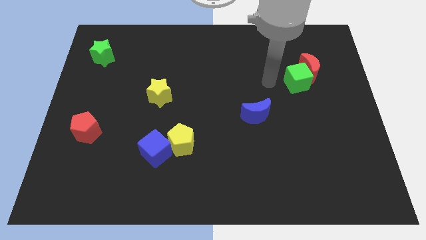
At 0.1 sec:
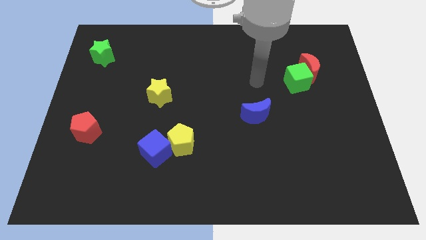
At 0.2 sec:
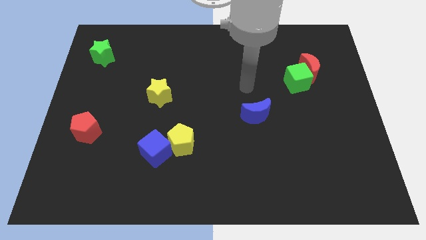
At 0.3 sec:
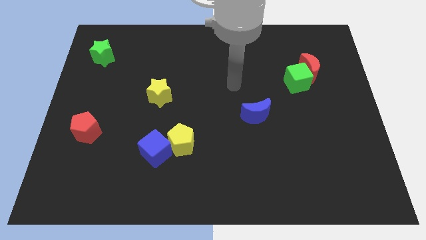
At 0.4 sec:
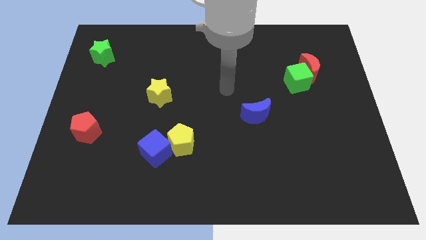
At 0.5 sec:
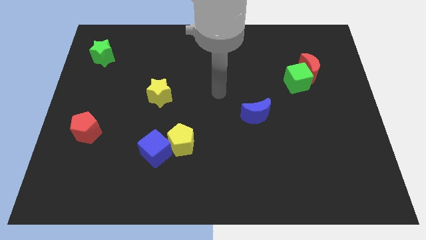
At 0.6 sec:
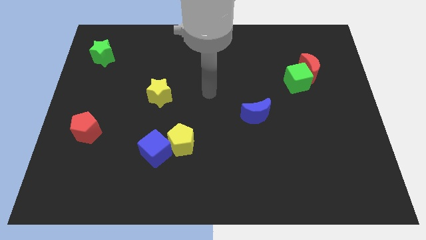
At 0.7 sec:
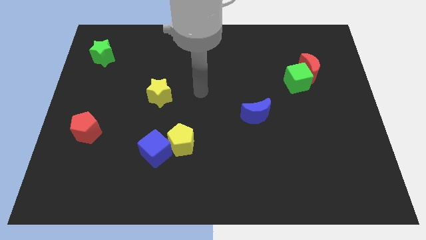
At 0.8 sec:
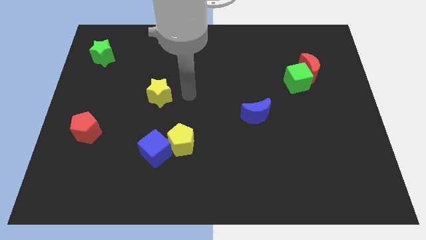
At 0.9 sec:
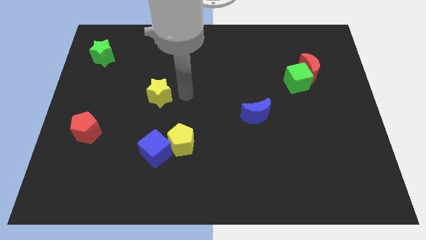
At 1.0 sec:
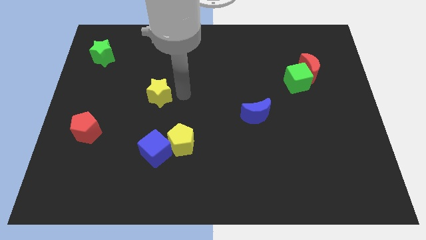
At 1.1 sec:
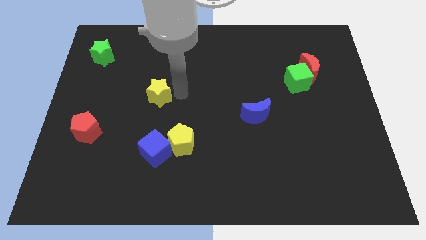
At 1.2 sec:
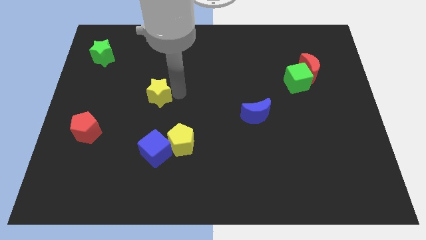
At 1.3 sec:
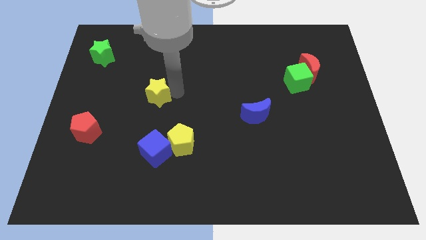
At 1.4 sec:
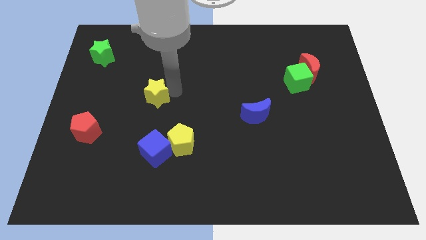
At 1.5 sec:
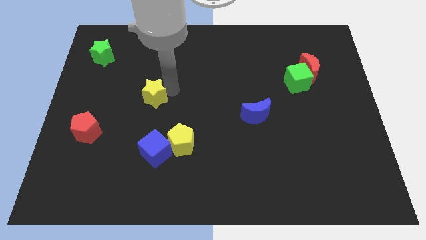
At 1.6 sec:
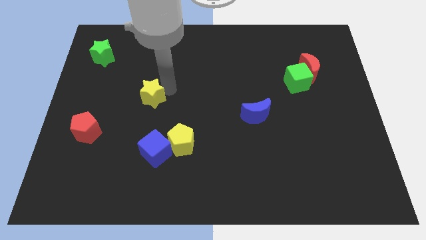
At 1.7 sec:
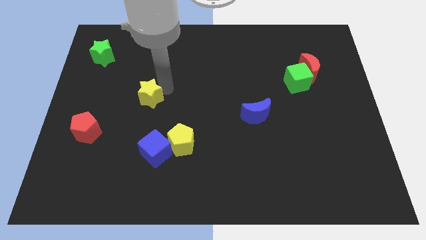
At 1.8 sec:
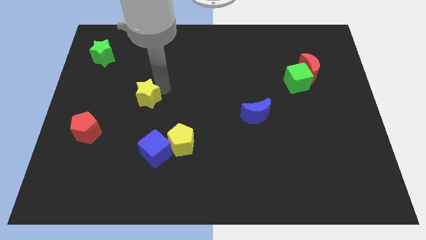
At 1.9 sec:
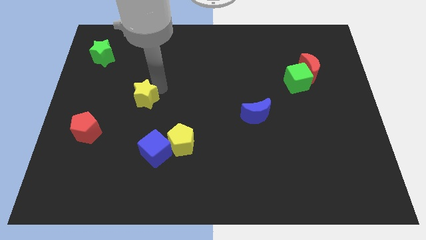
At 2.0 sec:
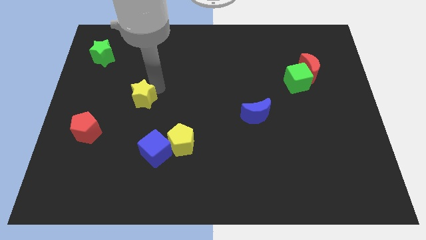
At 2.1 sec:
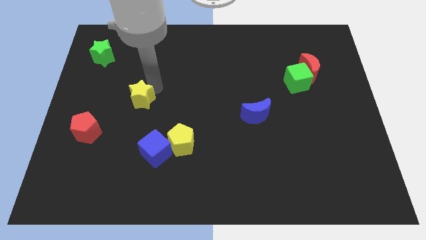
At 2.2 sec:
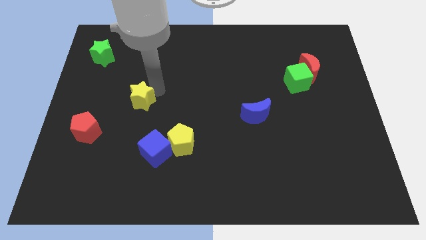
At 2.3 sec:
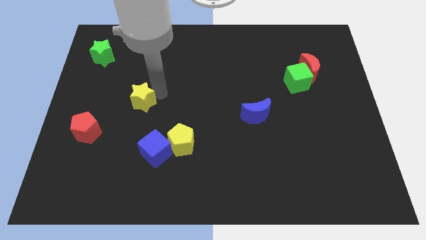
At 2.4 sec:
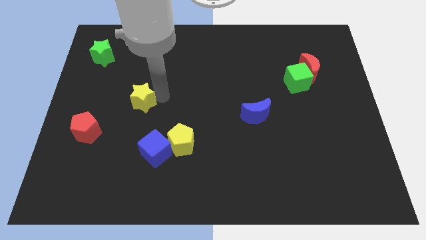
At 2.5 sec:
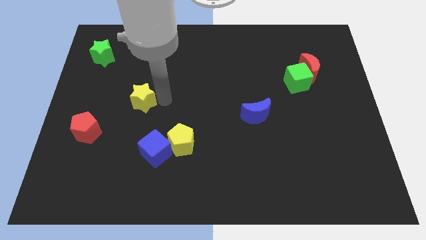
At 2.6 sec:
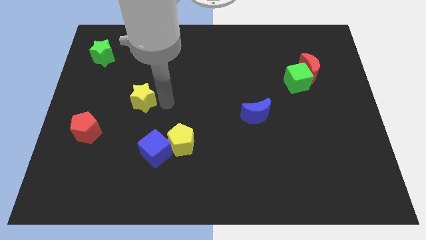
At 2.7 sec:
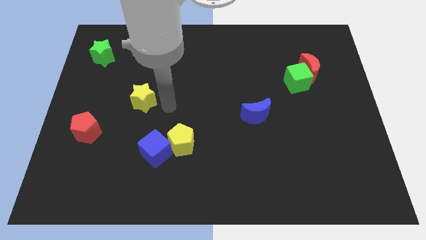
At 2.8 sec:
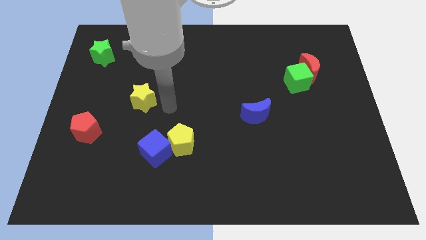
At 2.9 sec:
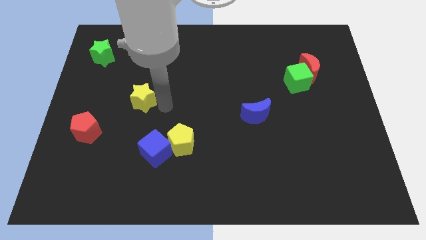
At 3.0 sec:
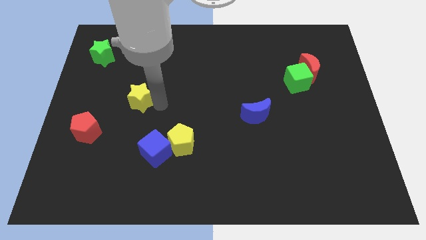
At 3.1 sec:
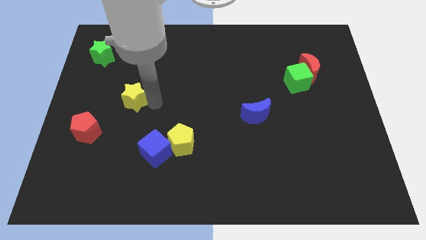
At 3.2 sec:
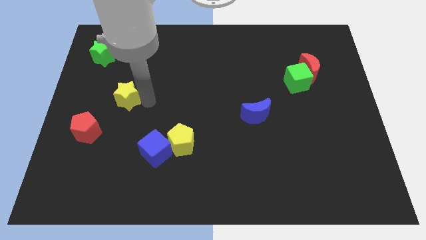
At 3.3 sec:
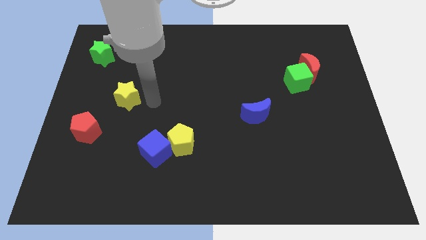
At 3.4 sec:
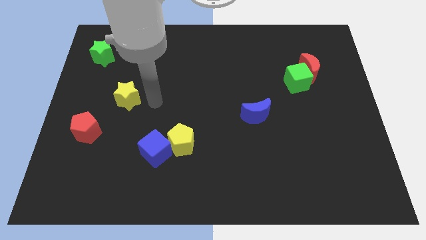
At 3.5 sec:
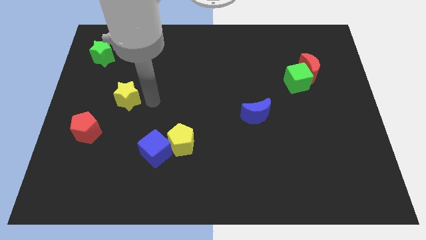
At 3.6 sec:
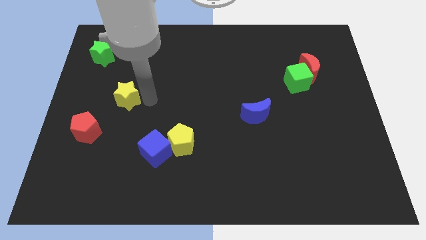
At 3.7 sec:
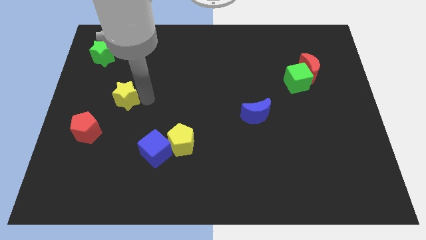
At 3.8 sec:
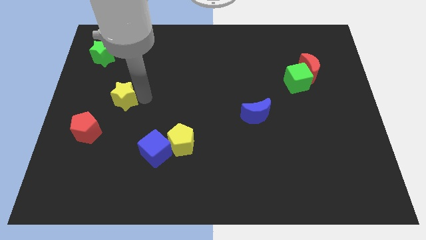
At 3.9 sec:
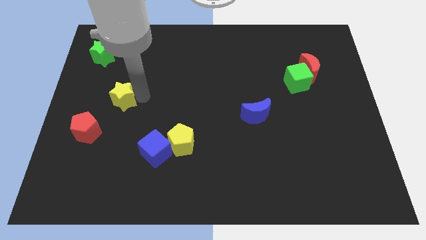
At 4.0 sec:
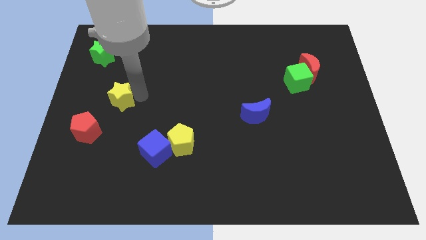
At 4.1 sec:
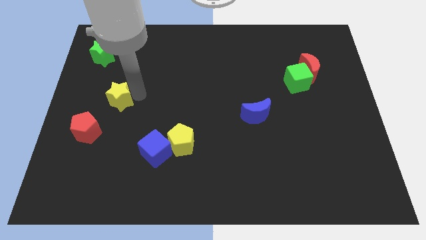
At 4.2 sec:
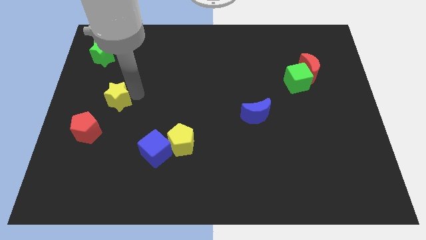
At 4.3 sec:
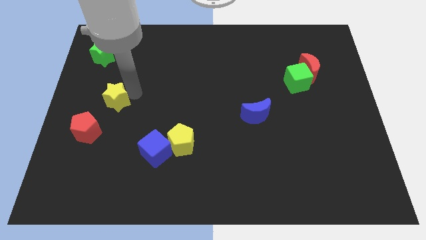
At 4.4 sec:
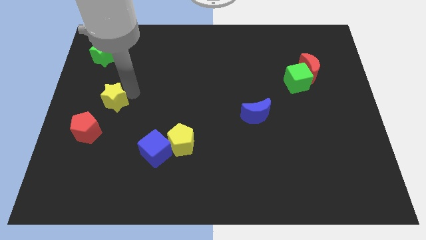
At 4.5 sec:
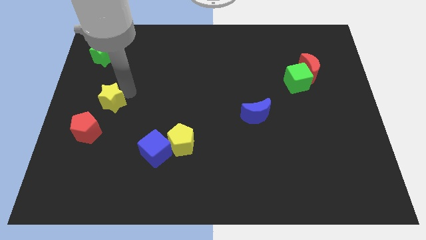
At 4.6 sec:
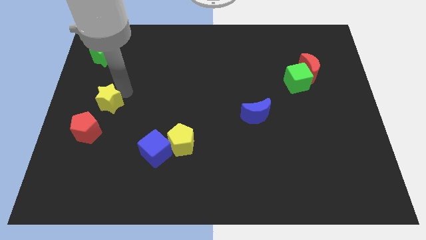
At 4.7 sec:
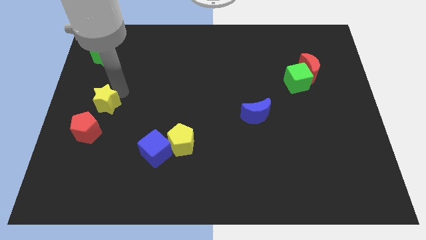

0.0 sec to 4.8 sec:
push the yellow star to the center left

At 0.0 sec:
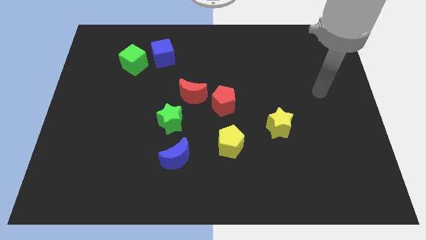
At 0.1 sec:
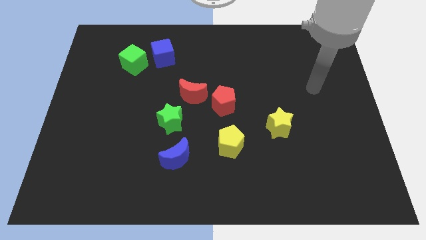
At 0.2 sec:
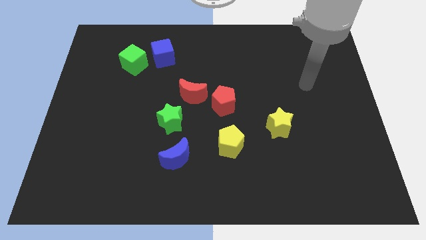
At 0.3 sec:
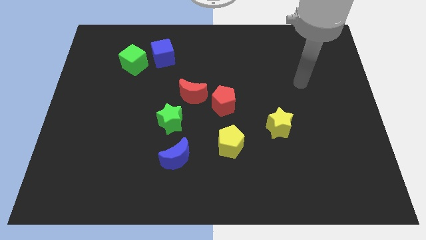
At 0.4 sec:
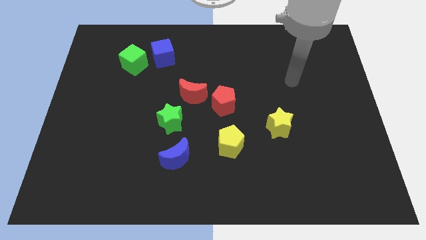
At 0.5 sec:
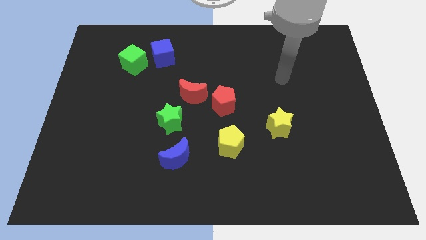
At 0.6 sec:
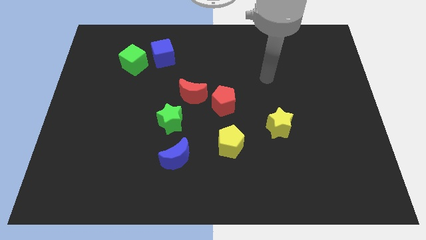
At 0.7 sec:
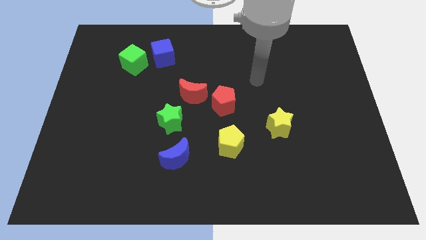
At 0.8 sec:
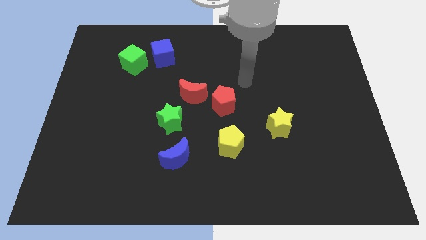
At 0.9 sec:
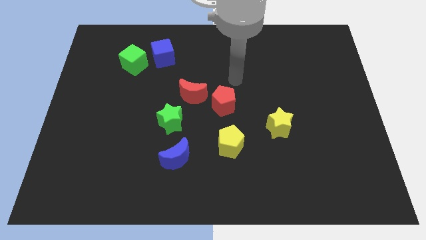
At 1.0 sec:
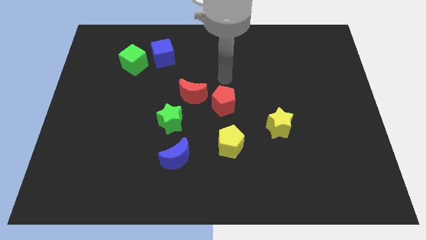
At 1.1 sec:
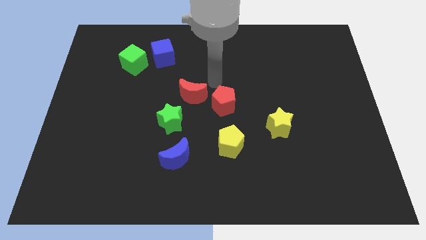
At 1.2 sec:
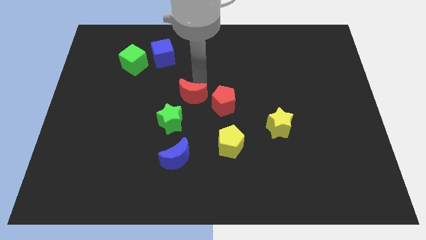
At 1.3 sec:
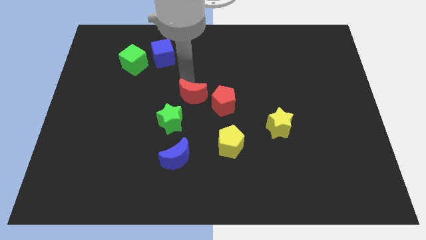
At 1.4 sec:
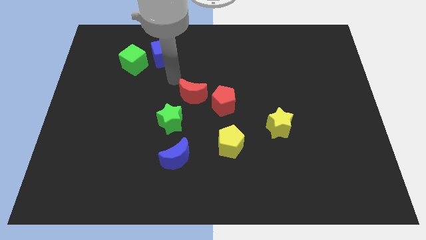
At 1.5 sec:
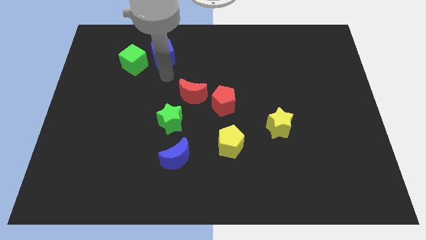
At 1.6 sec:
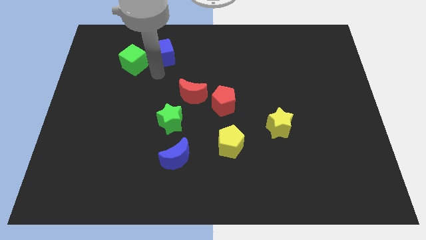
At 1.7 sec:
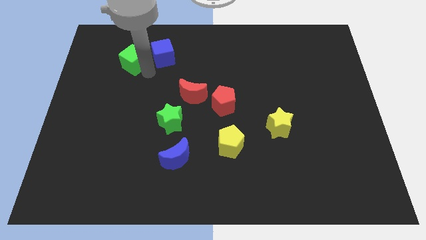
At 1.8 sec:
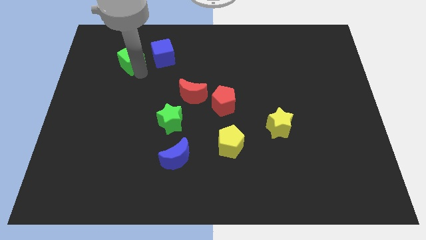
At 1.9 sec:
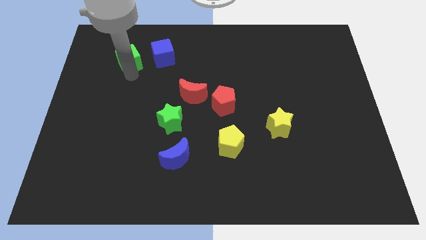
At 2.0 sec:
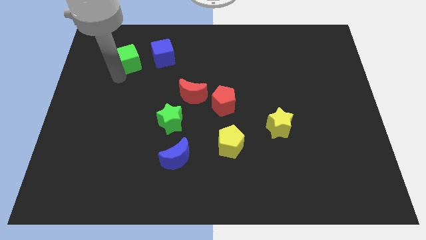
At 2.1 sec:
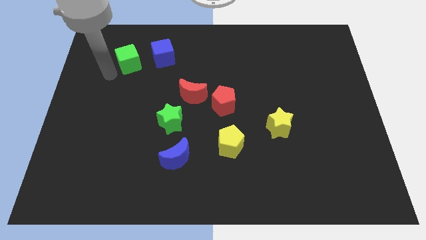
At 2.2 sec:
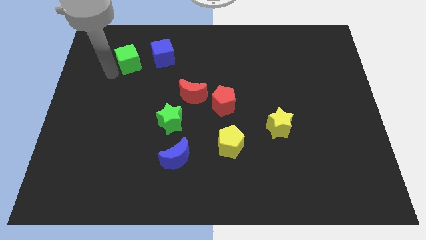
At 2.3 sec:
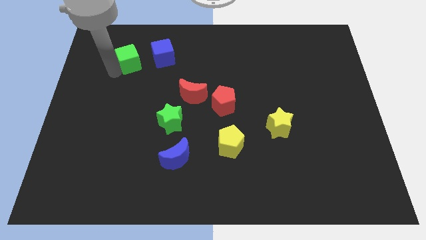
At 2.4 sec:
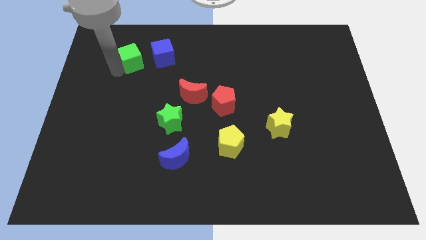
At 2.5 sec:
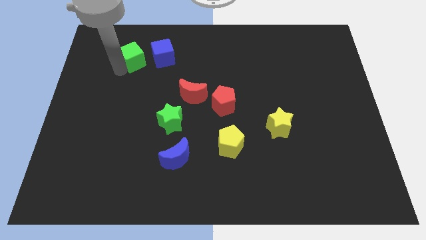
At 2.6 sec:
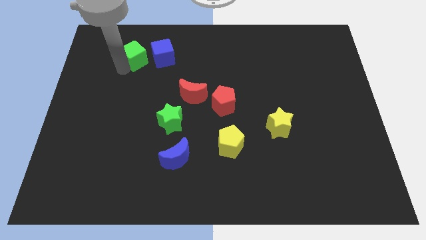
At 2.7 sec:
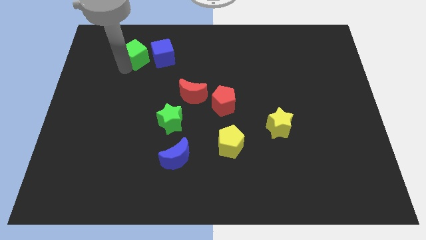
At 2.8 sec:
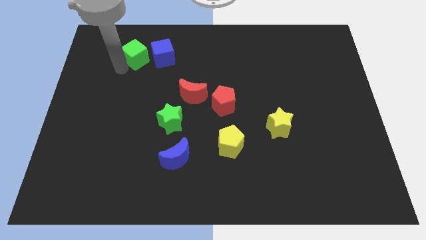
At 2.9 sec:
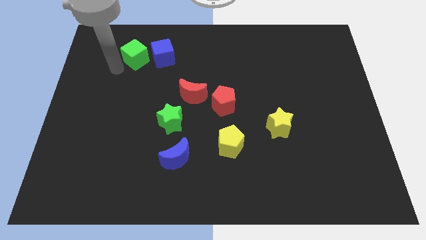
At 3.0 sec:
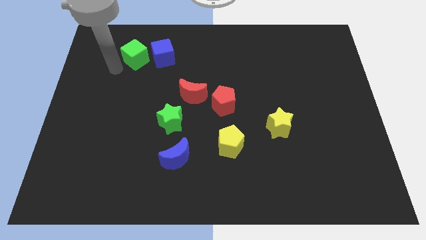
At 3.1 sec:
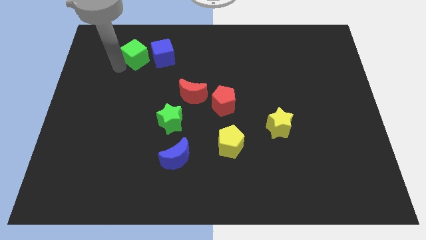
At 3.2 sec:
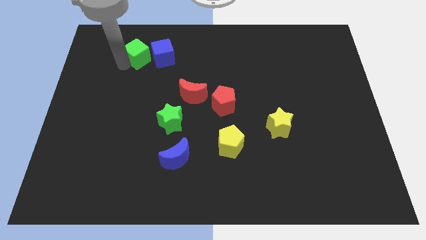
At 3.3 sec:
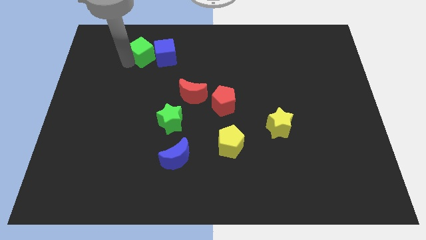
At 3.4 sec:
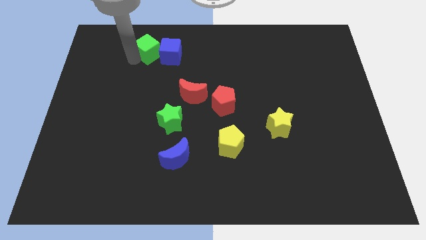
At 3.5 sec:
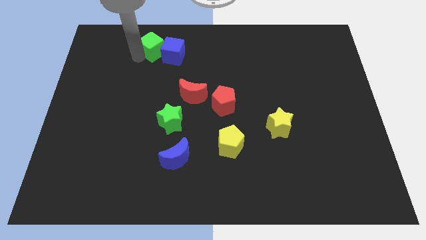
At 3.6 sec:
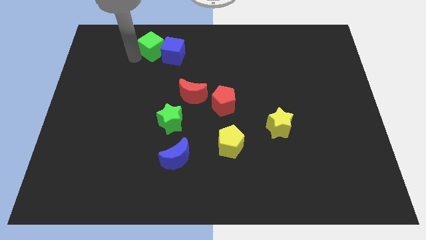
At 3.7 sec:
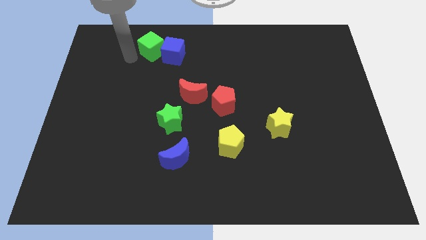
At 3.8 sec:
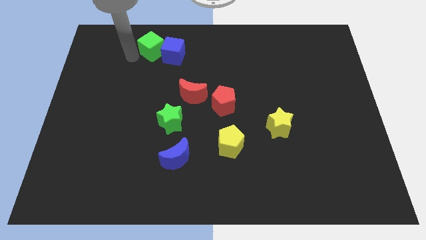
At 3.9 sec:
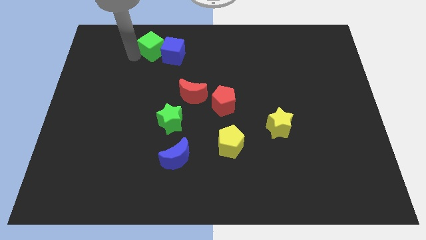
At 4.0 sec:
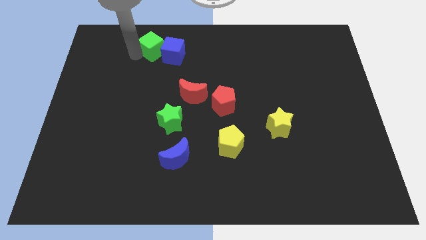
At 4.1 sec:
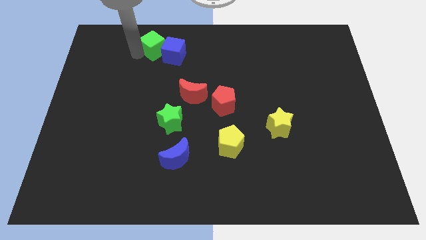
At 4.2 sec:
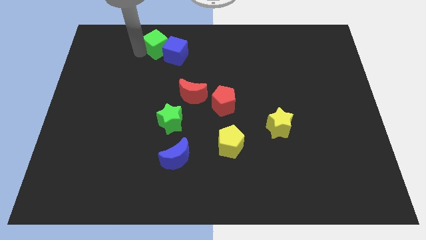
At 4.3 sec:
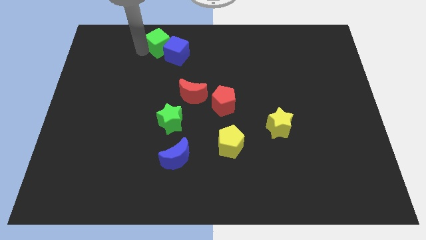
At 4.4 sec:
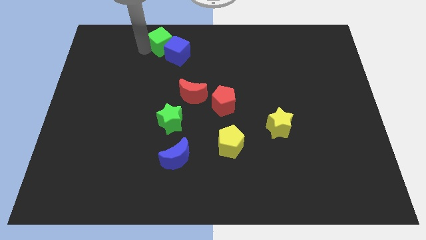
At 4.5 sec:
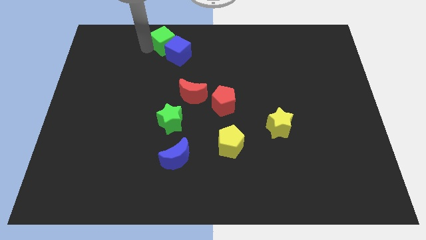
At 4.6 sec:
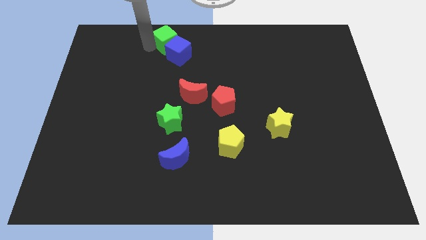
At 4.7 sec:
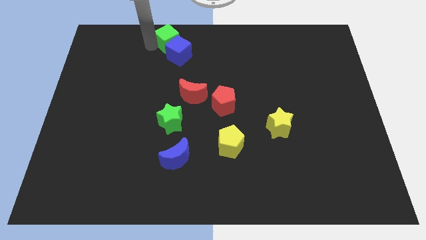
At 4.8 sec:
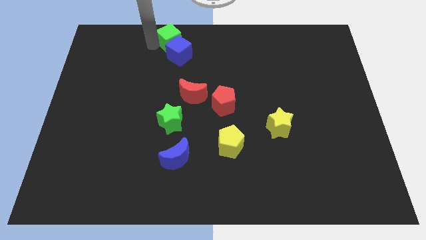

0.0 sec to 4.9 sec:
slide the green cube to the top side
